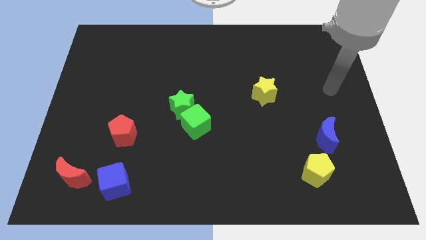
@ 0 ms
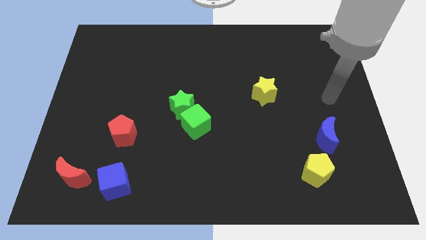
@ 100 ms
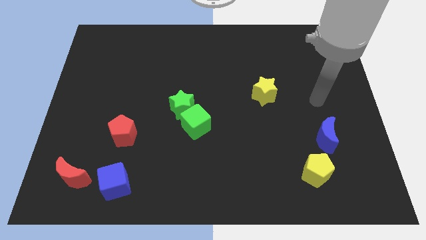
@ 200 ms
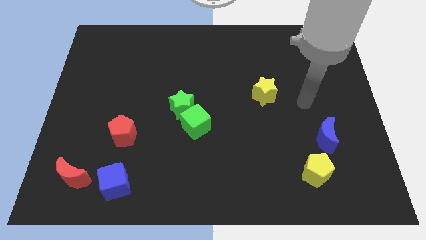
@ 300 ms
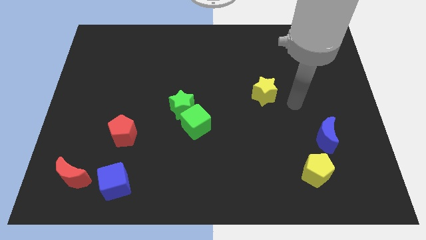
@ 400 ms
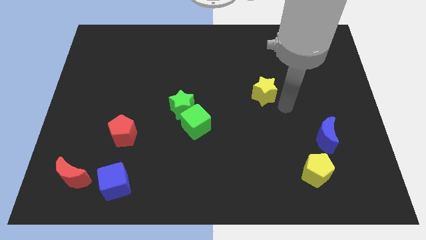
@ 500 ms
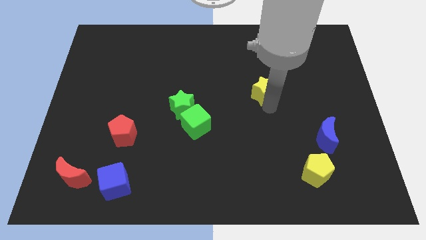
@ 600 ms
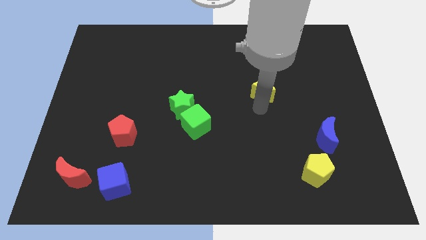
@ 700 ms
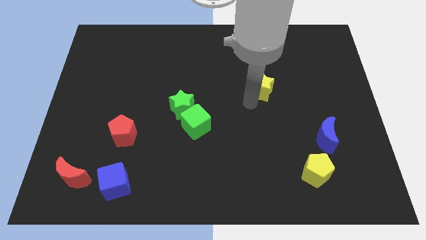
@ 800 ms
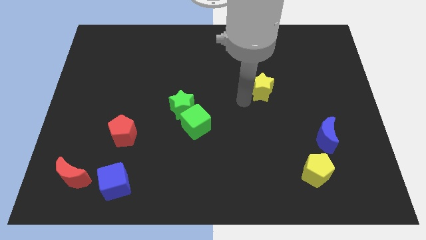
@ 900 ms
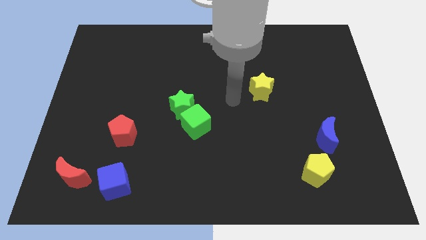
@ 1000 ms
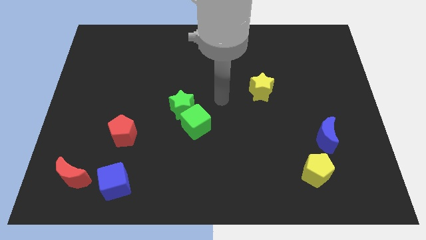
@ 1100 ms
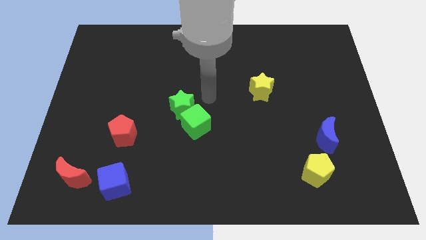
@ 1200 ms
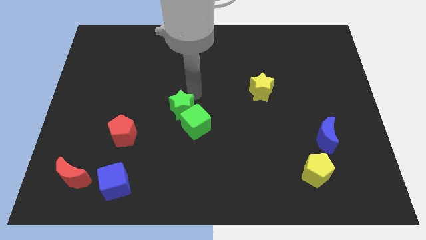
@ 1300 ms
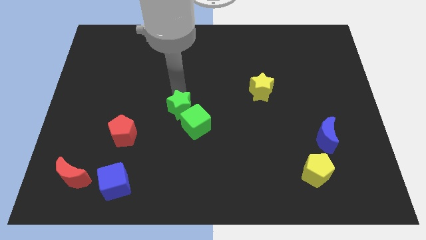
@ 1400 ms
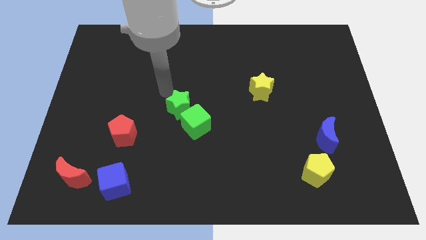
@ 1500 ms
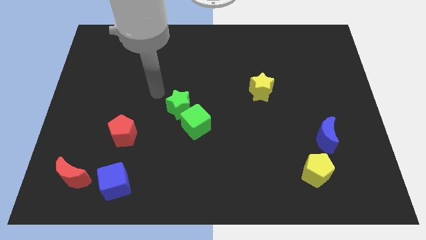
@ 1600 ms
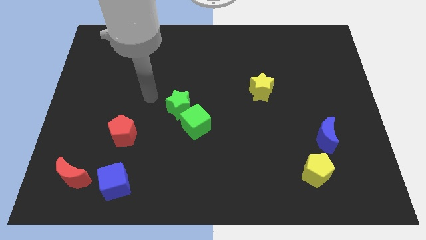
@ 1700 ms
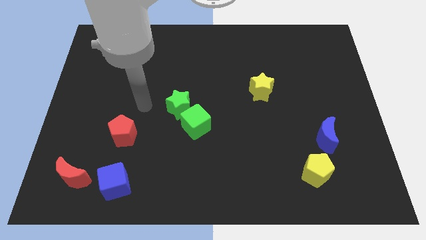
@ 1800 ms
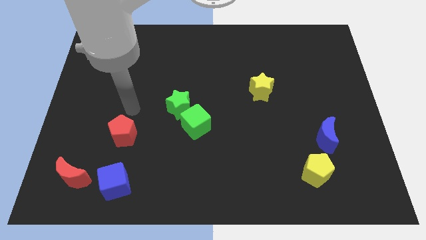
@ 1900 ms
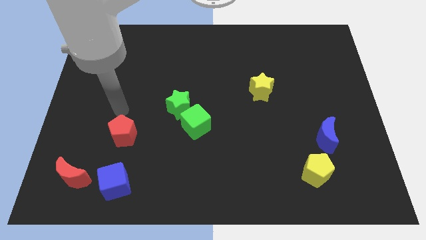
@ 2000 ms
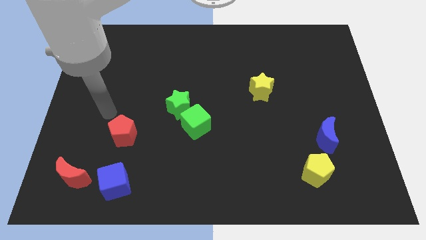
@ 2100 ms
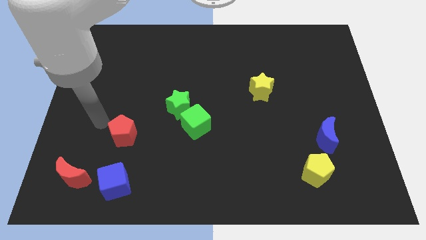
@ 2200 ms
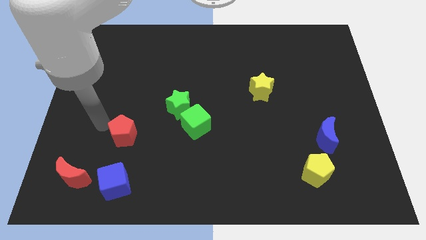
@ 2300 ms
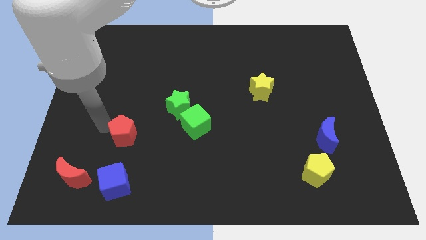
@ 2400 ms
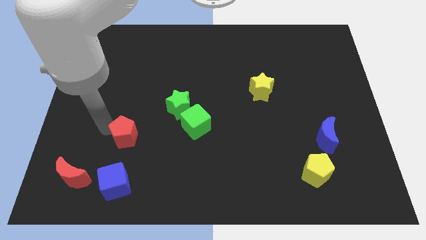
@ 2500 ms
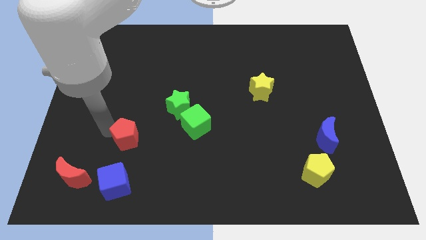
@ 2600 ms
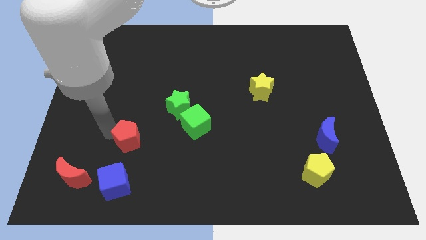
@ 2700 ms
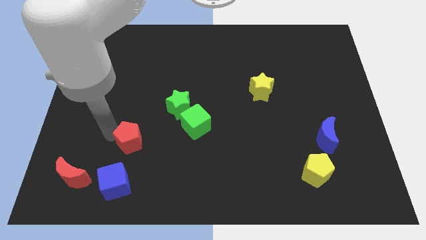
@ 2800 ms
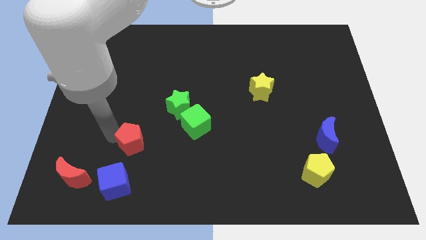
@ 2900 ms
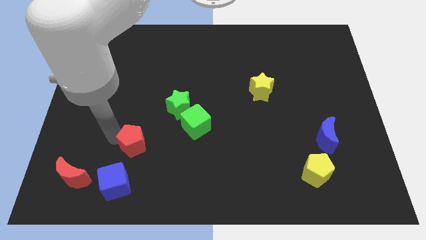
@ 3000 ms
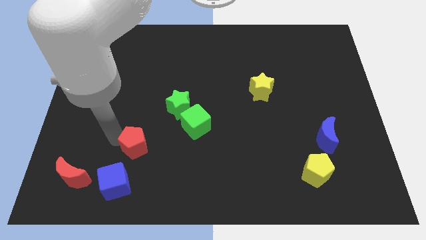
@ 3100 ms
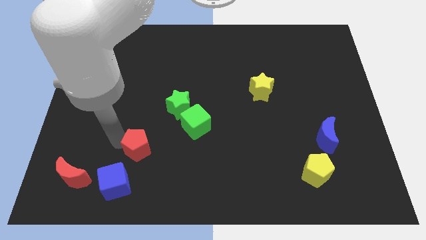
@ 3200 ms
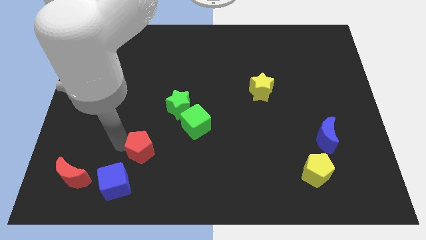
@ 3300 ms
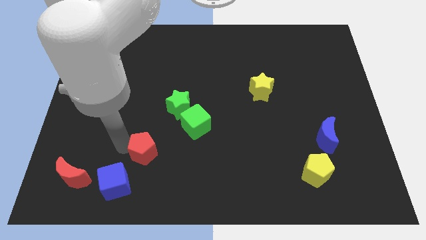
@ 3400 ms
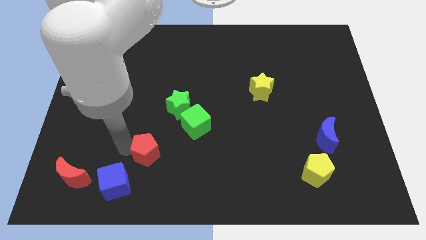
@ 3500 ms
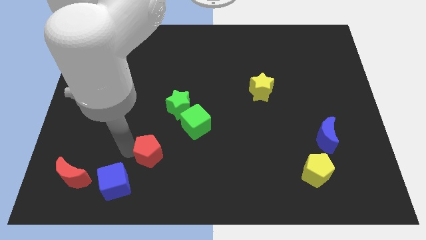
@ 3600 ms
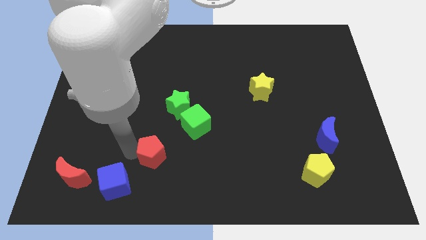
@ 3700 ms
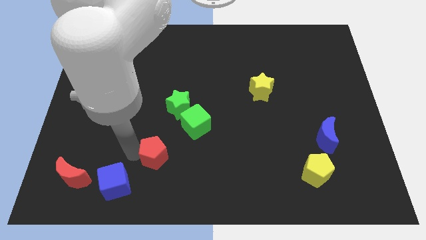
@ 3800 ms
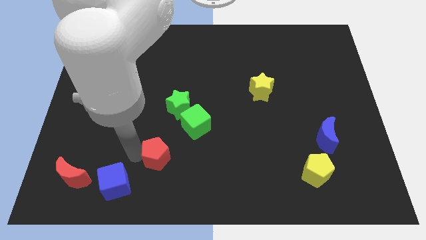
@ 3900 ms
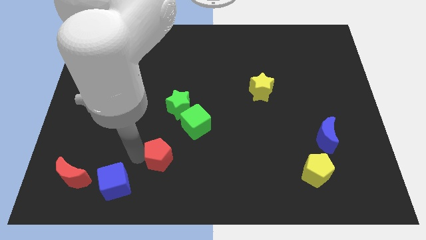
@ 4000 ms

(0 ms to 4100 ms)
push the red pentagon right slightly

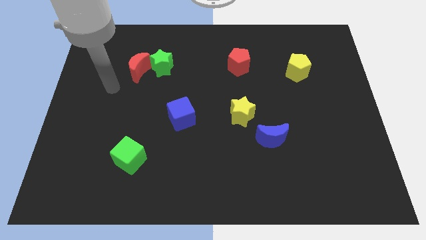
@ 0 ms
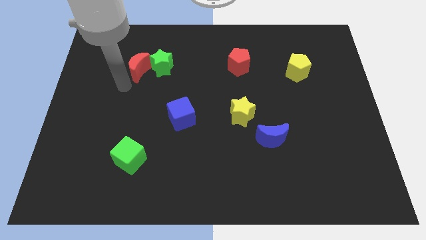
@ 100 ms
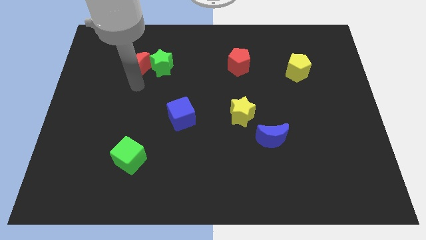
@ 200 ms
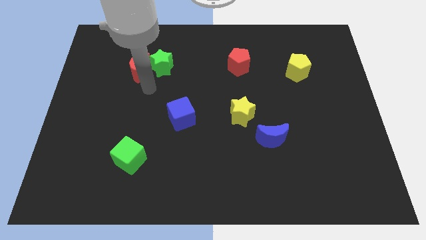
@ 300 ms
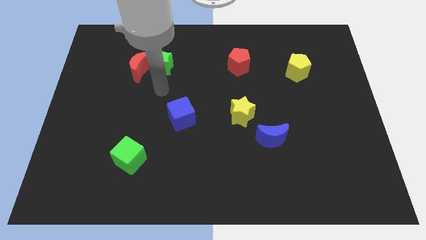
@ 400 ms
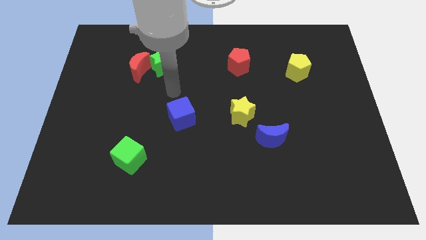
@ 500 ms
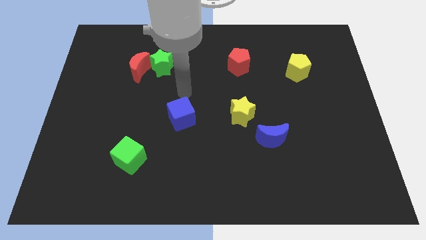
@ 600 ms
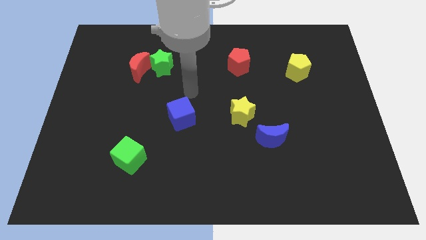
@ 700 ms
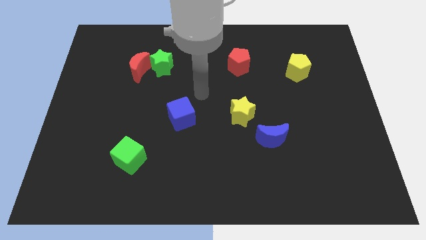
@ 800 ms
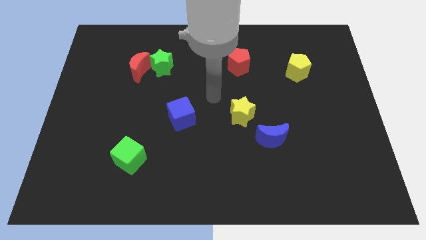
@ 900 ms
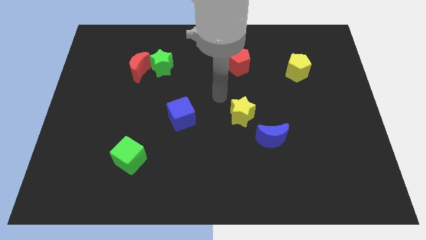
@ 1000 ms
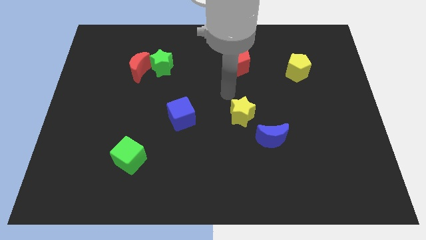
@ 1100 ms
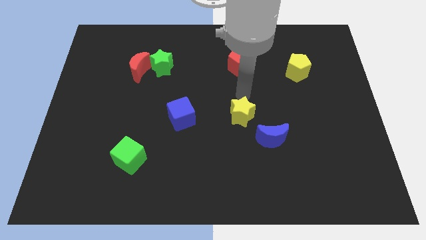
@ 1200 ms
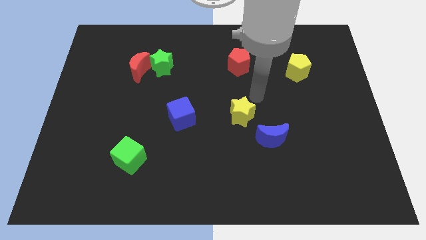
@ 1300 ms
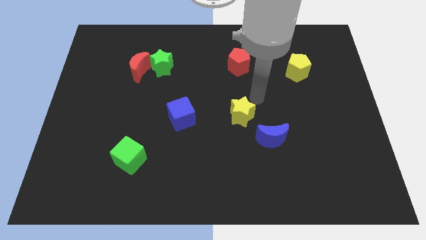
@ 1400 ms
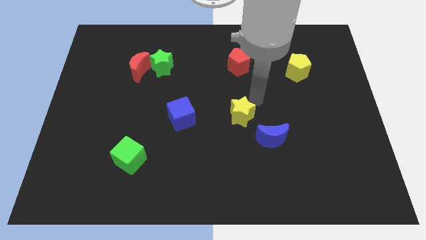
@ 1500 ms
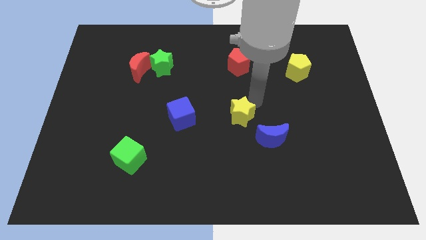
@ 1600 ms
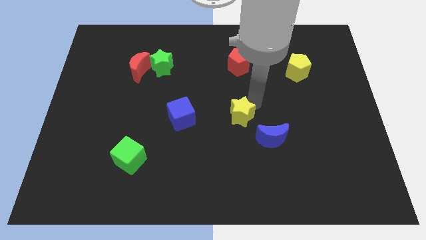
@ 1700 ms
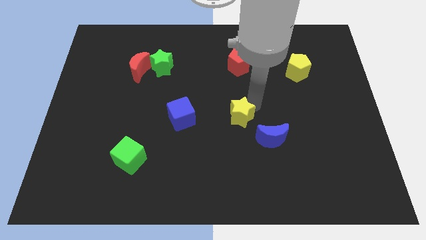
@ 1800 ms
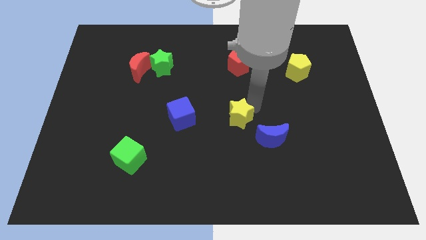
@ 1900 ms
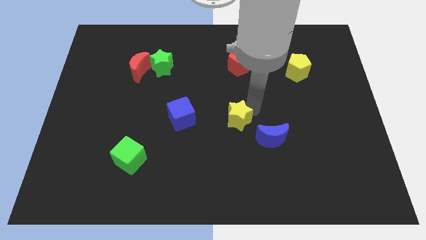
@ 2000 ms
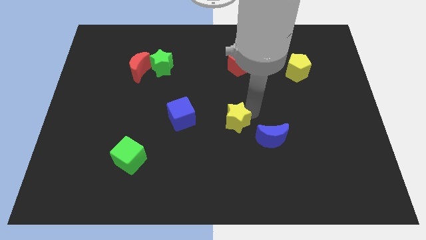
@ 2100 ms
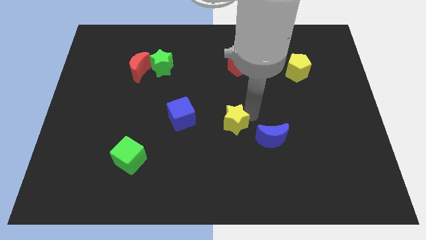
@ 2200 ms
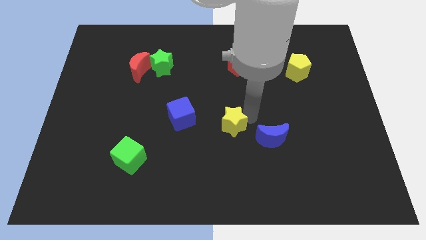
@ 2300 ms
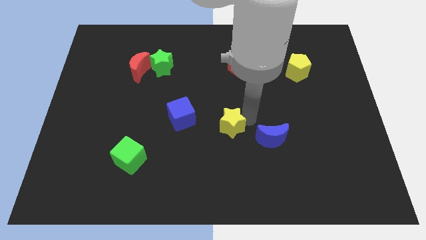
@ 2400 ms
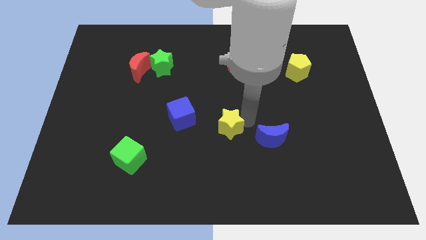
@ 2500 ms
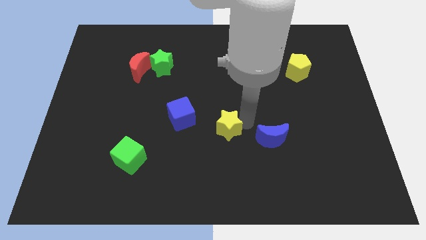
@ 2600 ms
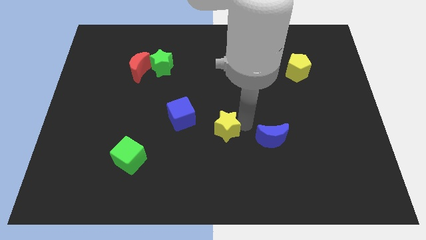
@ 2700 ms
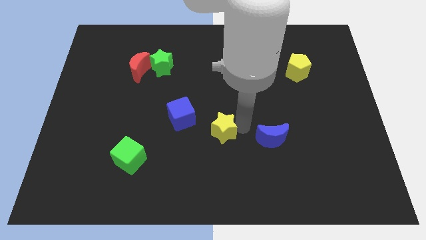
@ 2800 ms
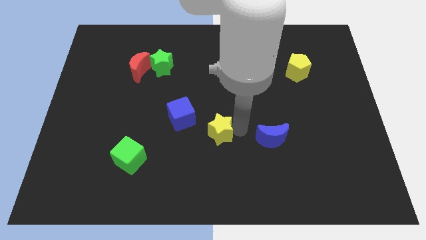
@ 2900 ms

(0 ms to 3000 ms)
move the yellow star a little diagonally down and left

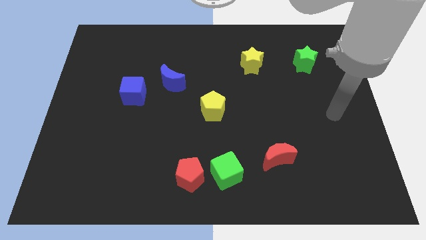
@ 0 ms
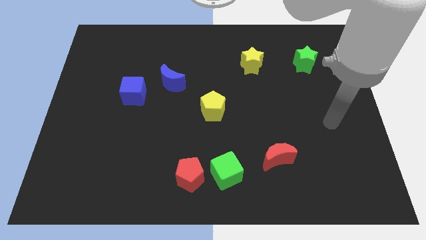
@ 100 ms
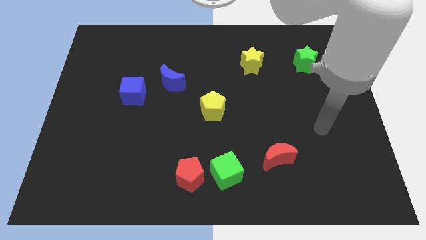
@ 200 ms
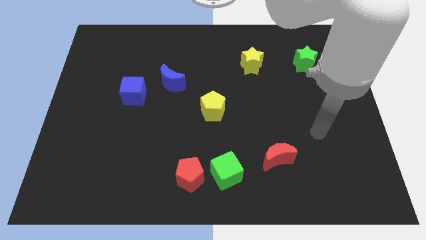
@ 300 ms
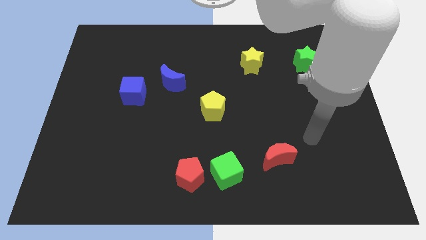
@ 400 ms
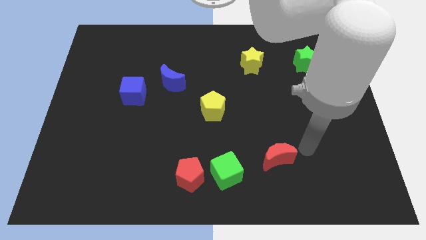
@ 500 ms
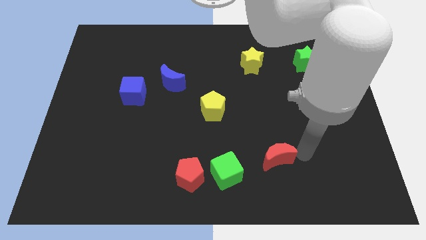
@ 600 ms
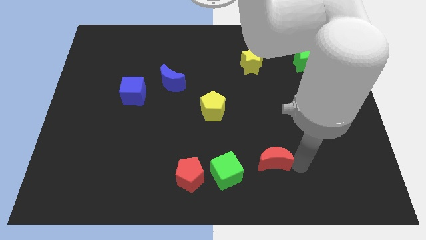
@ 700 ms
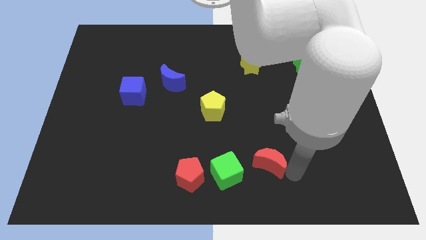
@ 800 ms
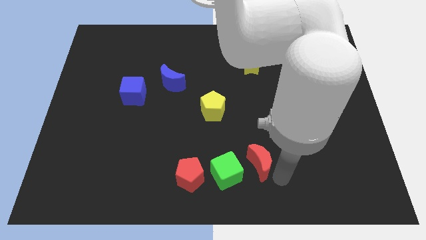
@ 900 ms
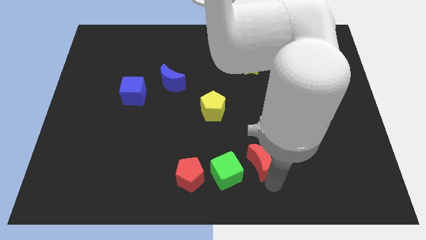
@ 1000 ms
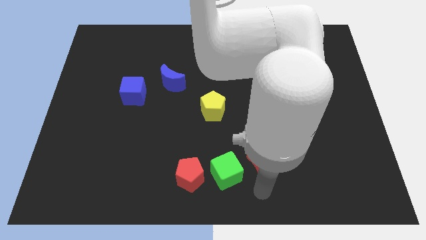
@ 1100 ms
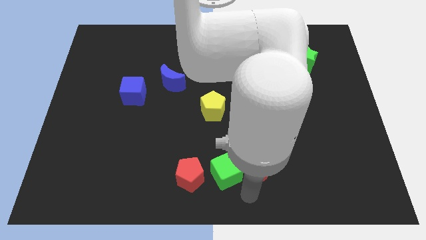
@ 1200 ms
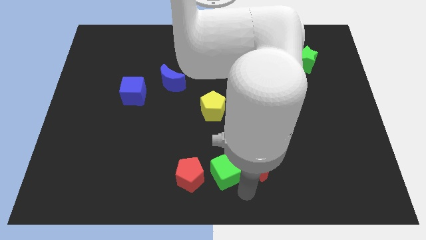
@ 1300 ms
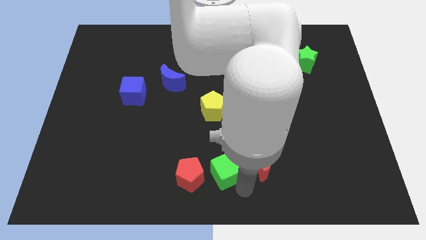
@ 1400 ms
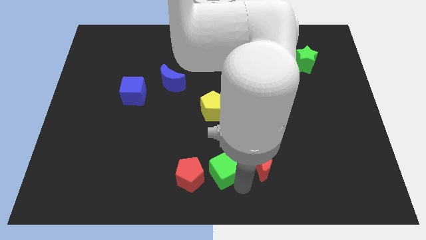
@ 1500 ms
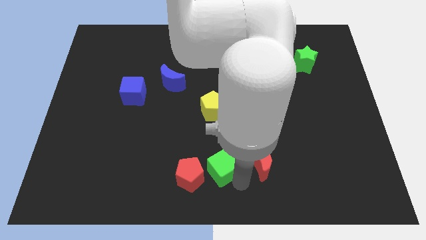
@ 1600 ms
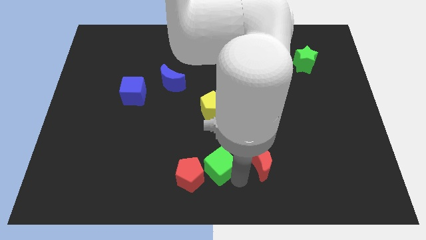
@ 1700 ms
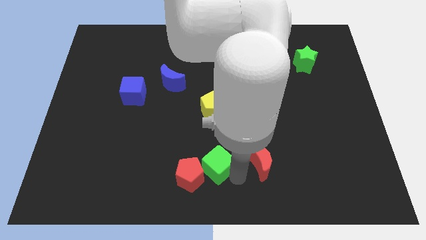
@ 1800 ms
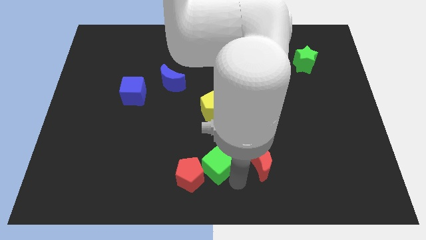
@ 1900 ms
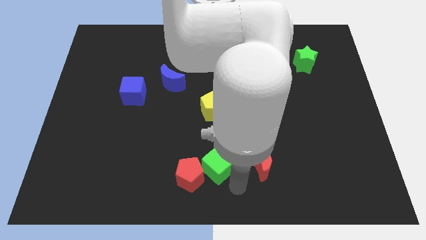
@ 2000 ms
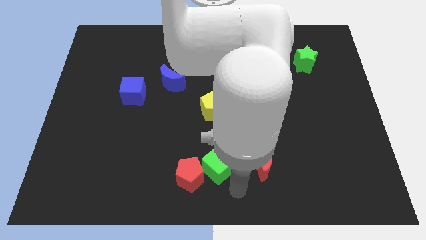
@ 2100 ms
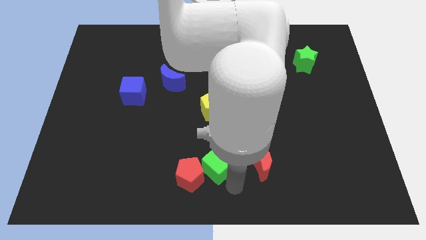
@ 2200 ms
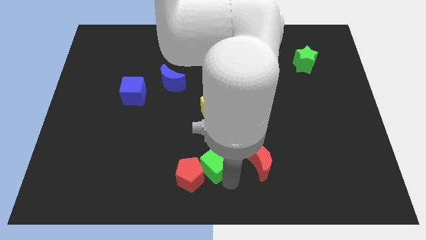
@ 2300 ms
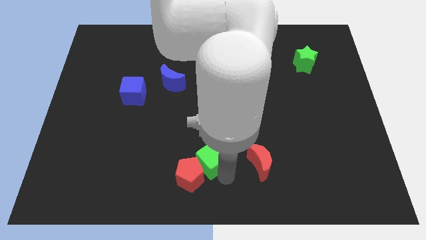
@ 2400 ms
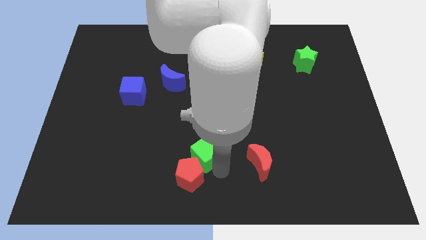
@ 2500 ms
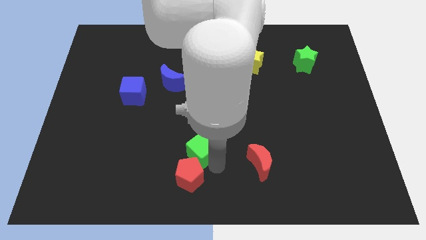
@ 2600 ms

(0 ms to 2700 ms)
push the green cube up and to the left diagonally a little
